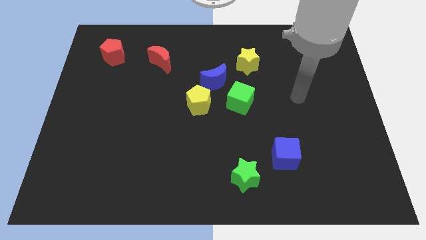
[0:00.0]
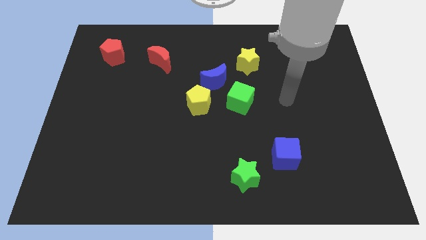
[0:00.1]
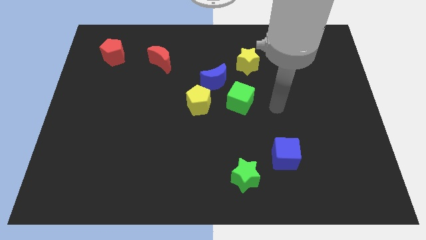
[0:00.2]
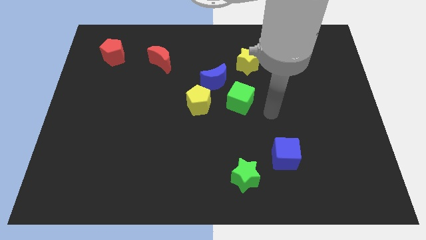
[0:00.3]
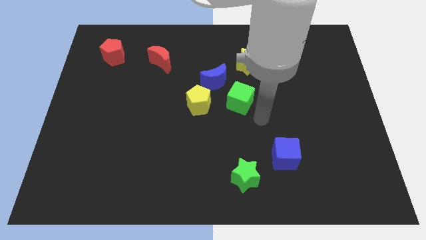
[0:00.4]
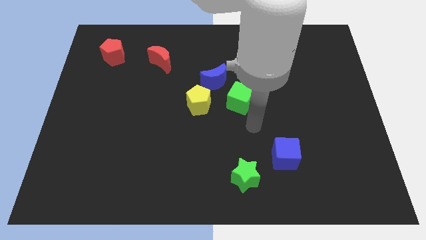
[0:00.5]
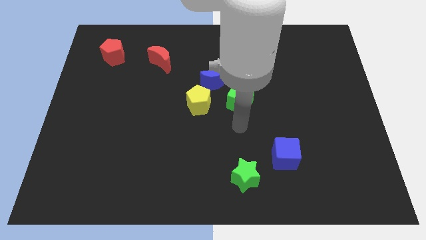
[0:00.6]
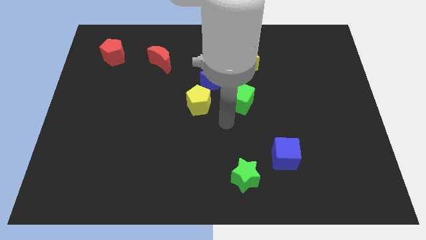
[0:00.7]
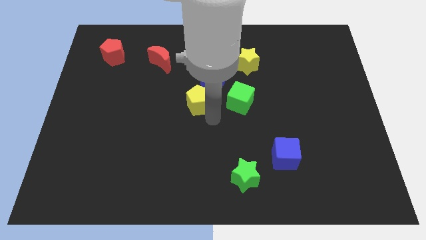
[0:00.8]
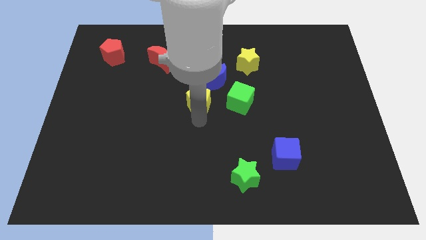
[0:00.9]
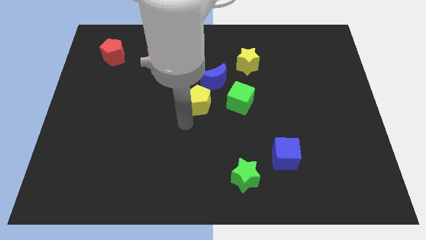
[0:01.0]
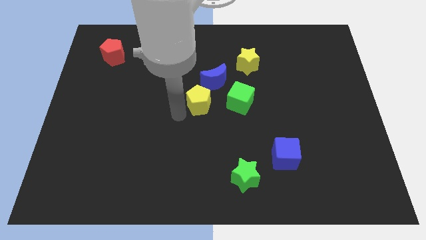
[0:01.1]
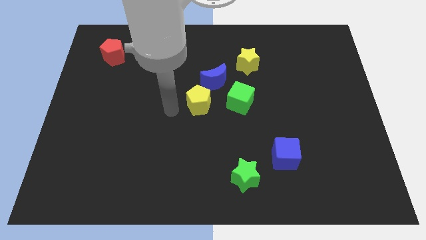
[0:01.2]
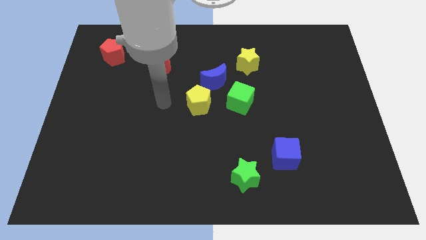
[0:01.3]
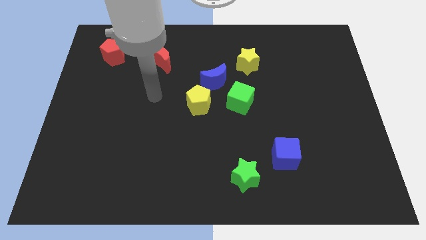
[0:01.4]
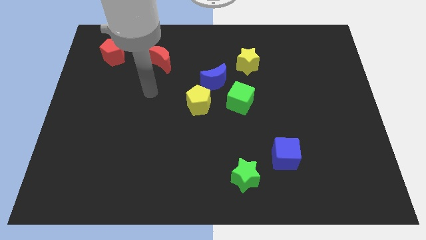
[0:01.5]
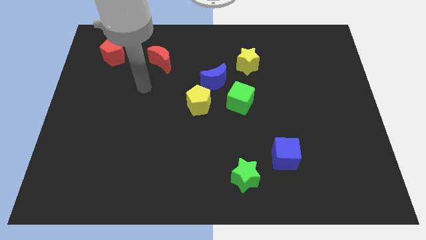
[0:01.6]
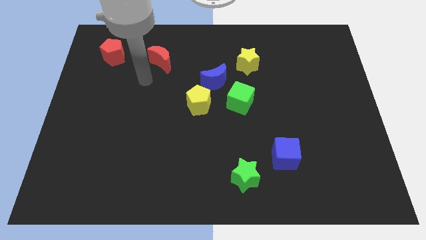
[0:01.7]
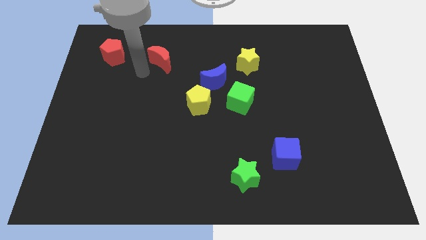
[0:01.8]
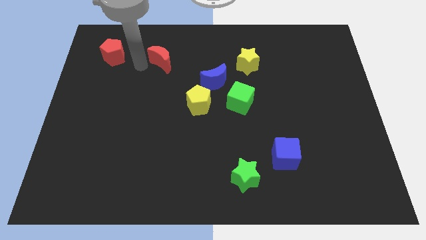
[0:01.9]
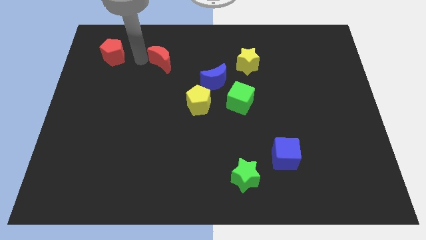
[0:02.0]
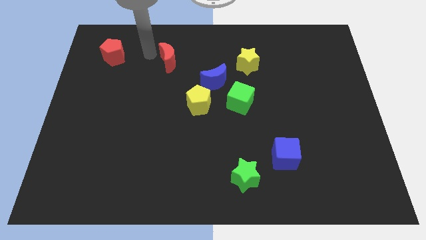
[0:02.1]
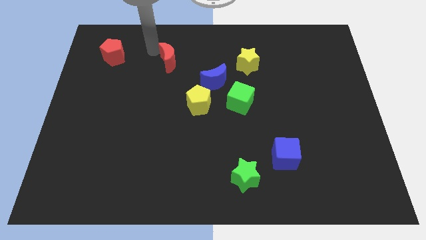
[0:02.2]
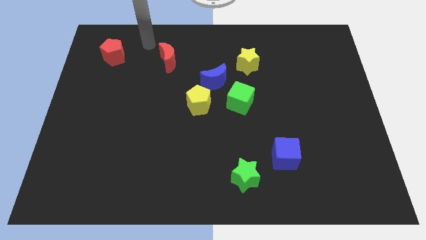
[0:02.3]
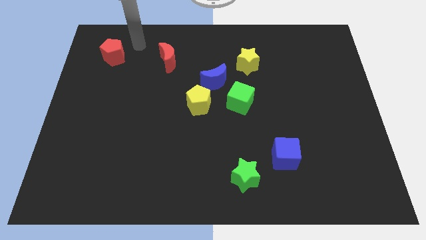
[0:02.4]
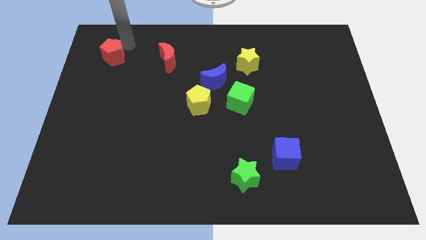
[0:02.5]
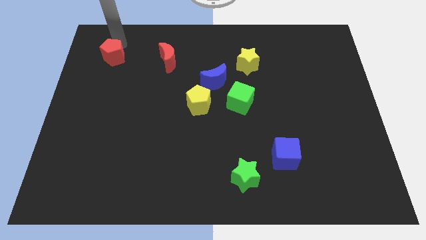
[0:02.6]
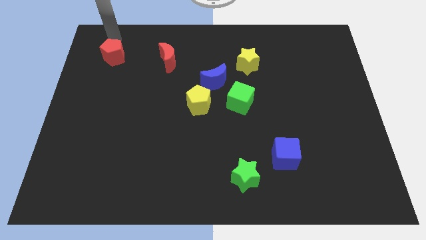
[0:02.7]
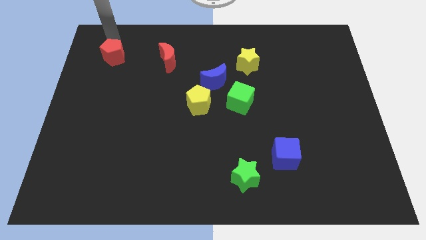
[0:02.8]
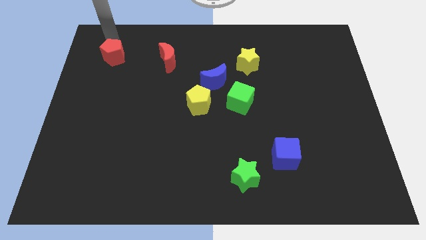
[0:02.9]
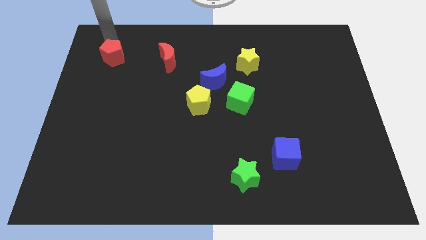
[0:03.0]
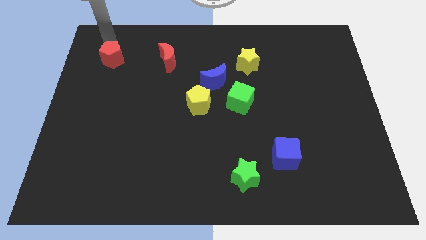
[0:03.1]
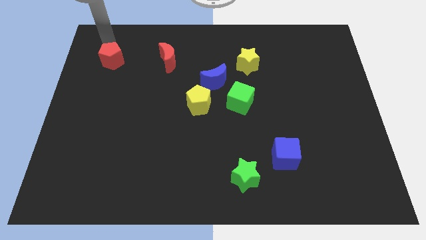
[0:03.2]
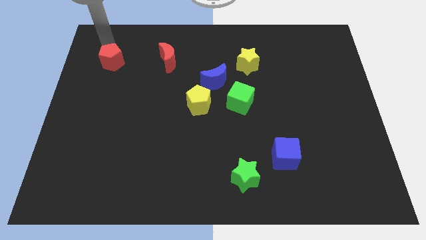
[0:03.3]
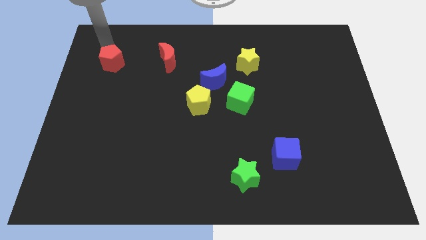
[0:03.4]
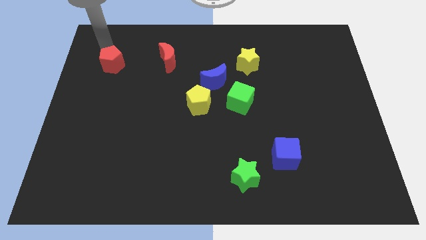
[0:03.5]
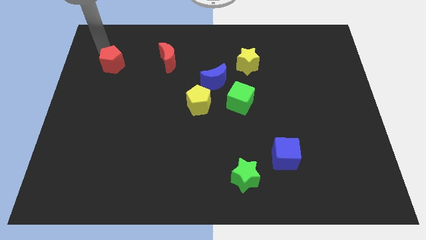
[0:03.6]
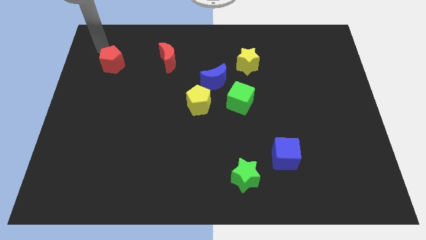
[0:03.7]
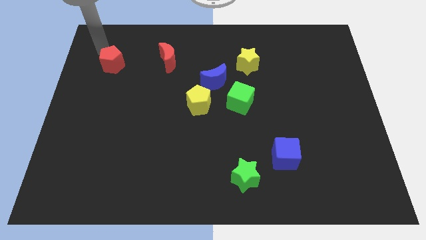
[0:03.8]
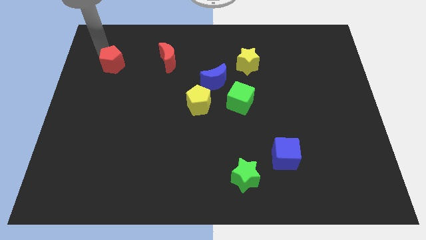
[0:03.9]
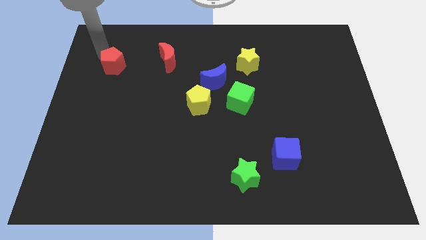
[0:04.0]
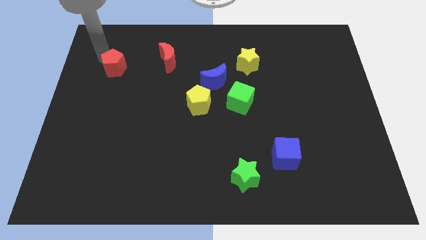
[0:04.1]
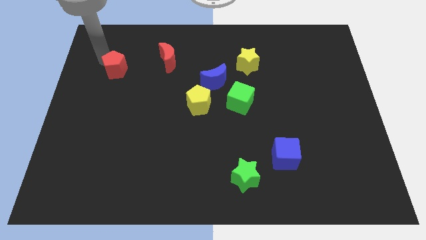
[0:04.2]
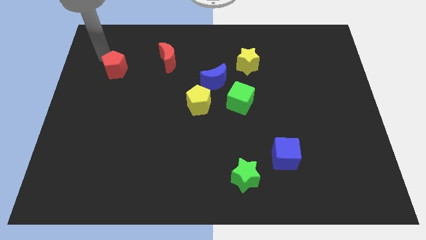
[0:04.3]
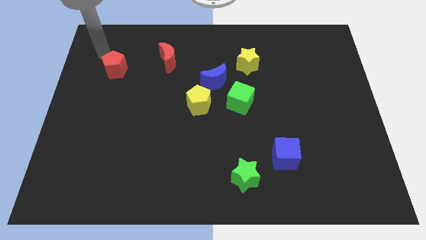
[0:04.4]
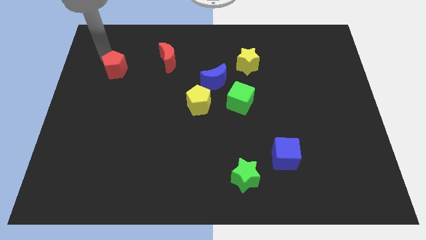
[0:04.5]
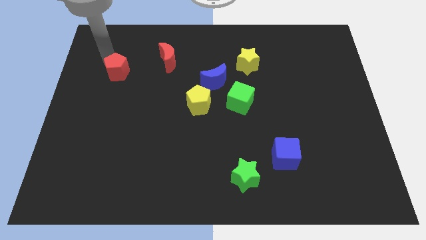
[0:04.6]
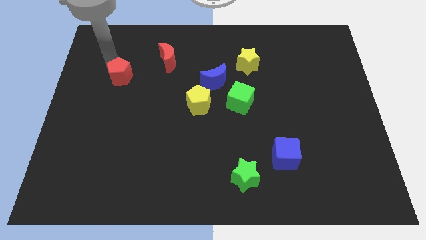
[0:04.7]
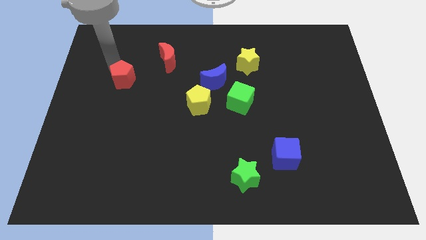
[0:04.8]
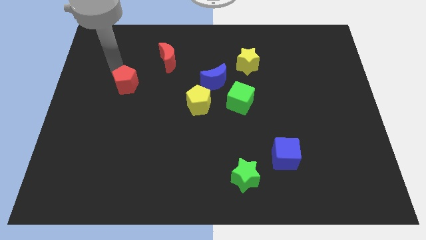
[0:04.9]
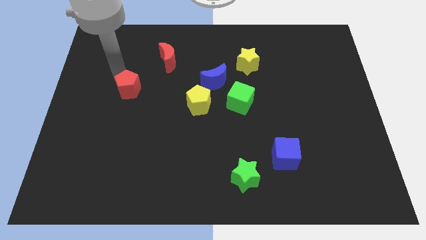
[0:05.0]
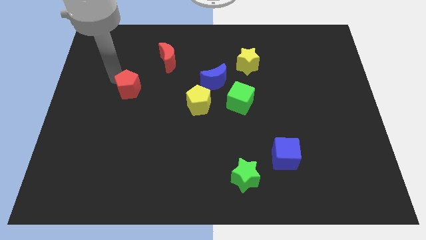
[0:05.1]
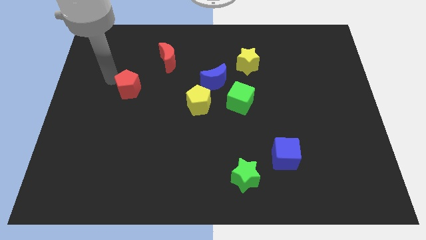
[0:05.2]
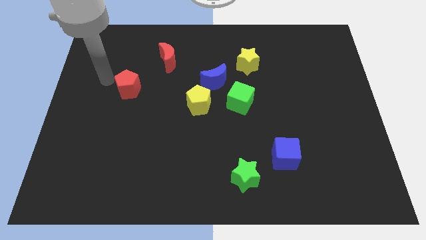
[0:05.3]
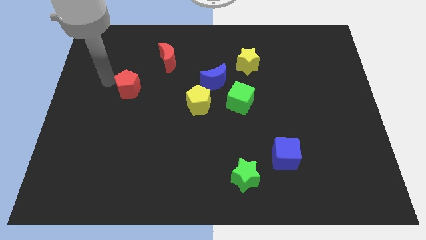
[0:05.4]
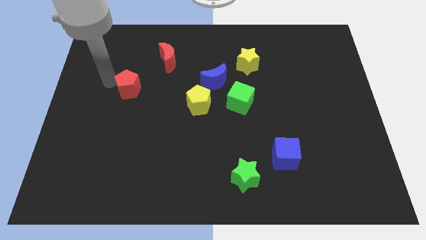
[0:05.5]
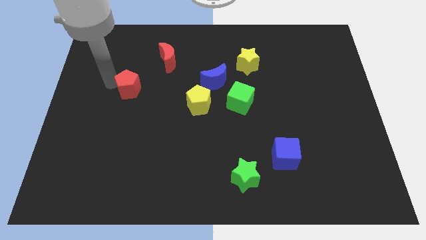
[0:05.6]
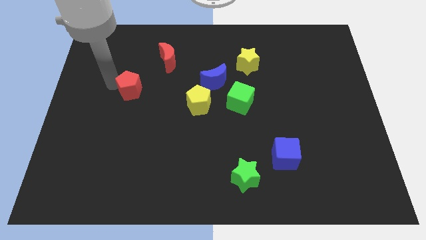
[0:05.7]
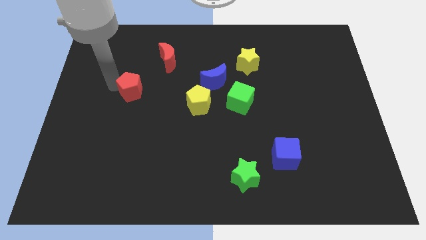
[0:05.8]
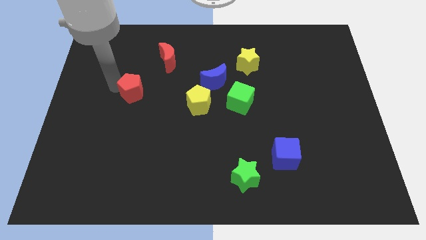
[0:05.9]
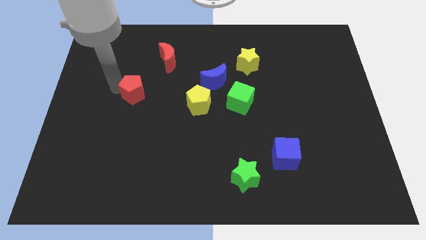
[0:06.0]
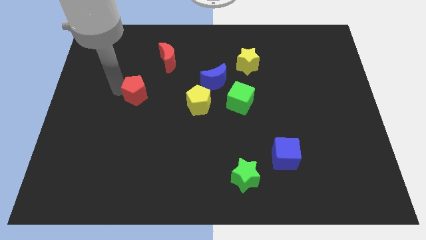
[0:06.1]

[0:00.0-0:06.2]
move the red pentagon to the left side of the yellow pentagon
